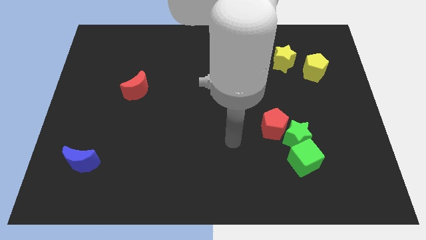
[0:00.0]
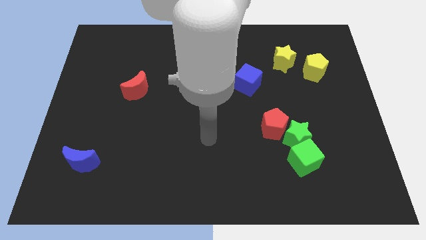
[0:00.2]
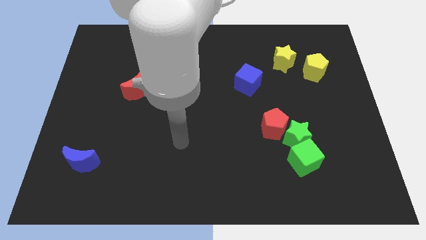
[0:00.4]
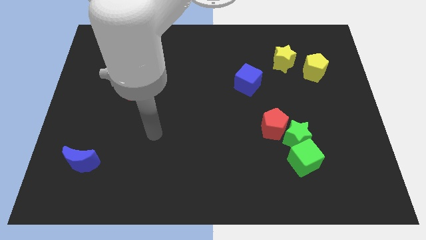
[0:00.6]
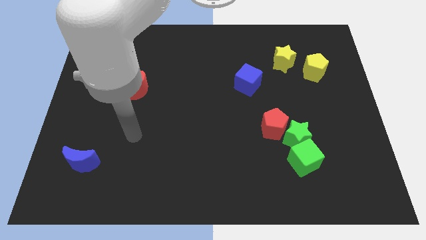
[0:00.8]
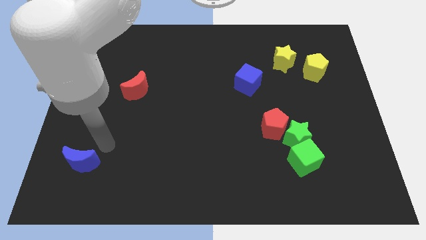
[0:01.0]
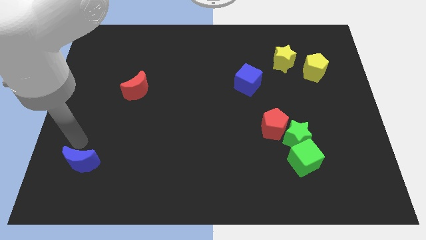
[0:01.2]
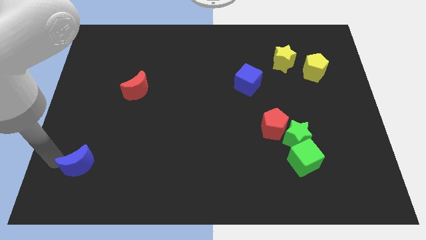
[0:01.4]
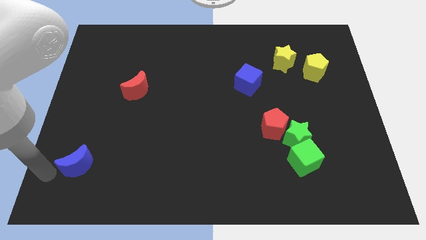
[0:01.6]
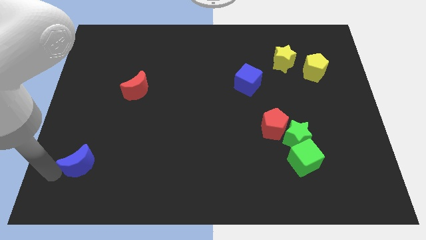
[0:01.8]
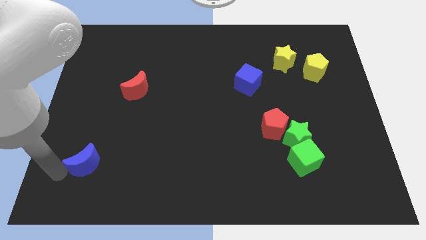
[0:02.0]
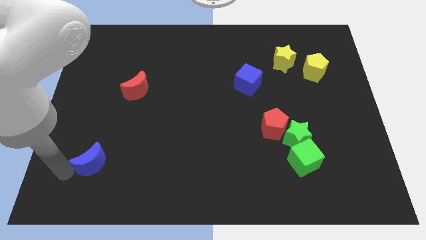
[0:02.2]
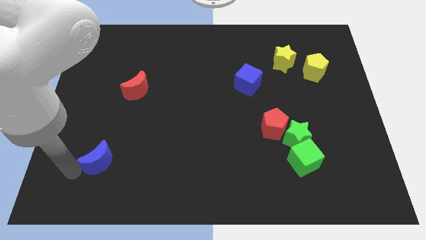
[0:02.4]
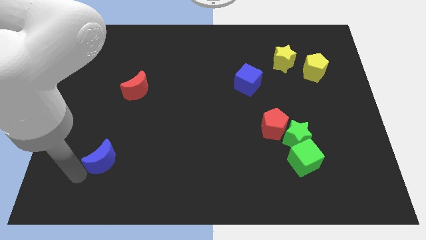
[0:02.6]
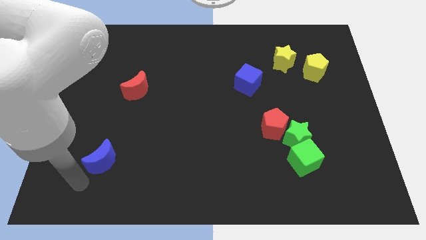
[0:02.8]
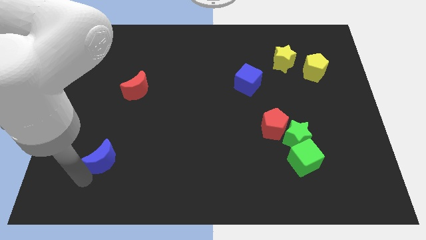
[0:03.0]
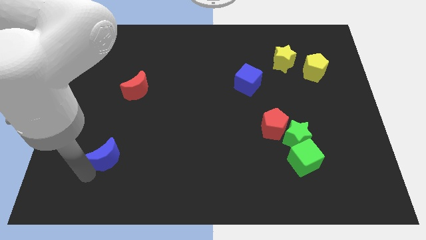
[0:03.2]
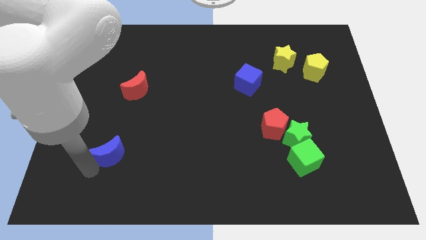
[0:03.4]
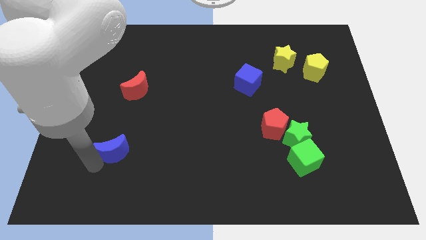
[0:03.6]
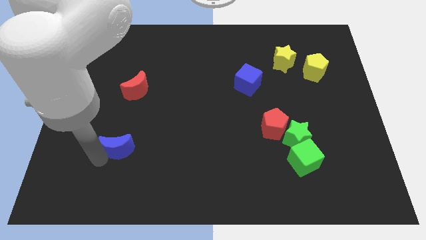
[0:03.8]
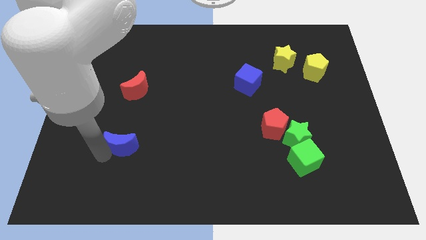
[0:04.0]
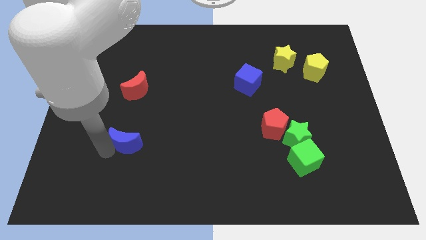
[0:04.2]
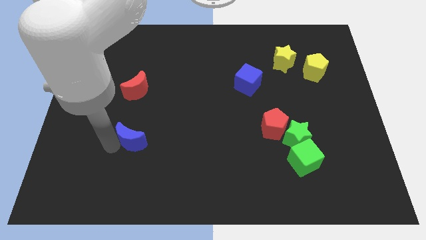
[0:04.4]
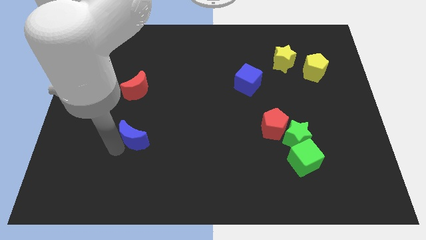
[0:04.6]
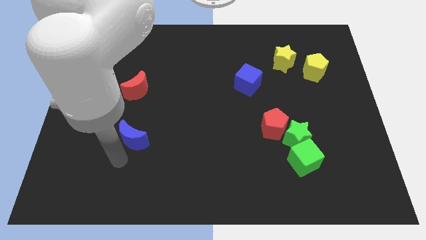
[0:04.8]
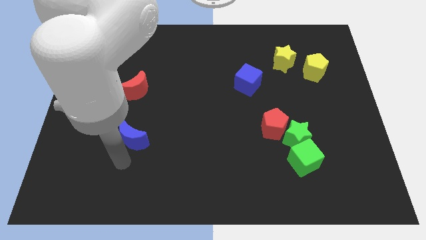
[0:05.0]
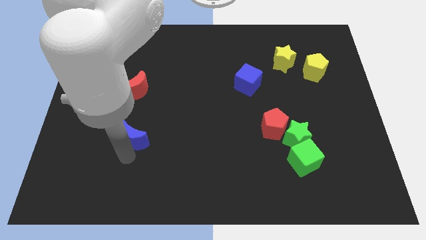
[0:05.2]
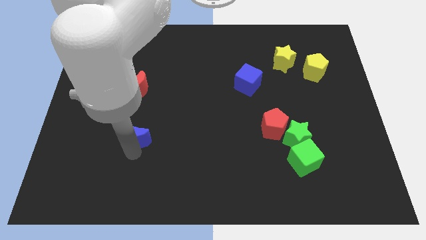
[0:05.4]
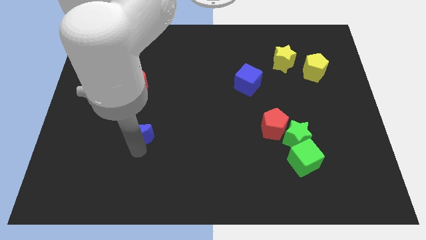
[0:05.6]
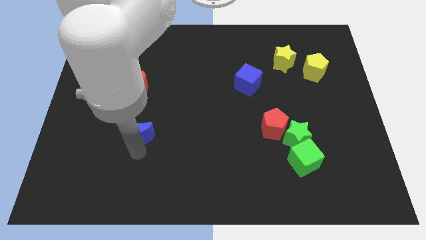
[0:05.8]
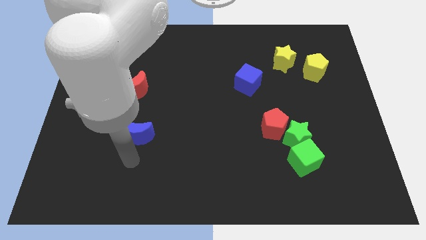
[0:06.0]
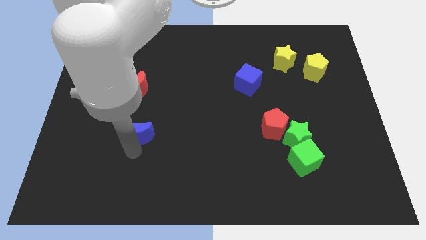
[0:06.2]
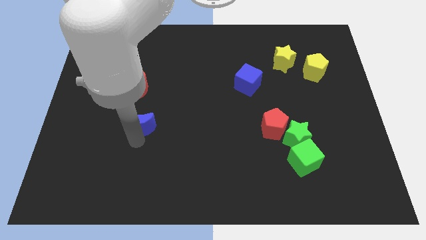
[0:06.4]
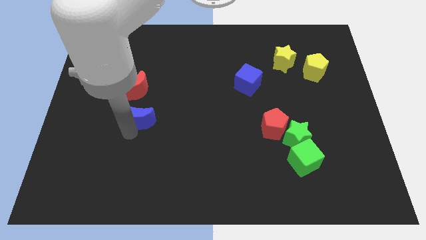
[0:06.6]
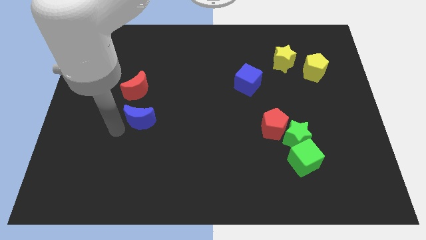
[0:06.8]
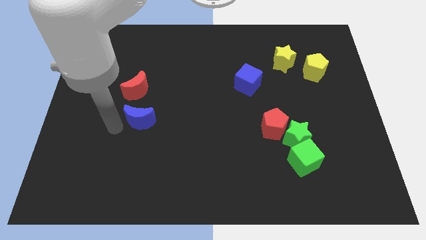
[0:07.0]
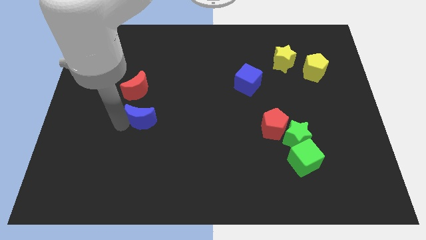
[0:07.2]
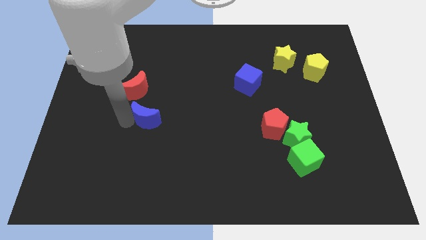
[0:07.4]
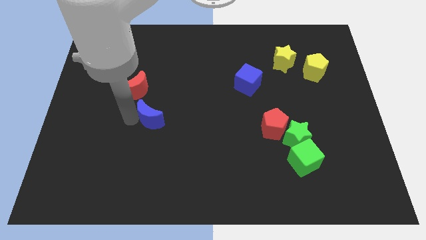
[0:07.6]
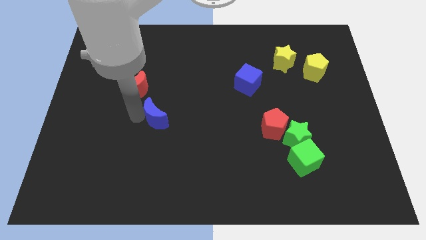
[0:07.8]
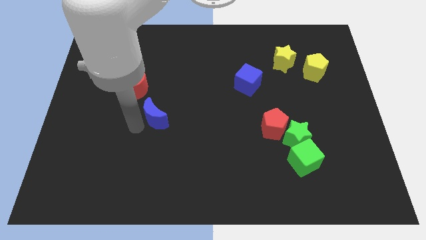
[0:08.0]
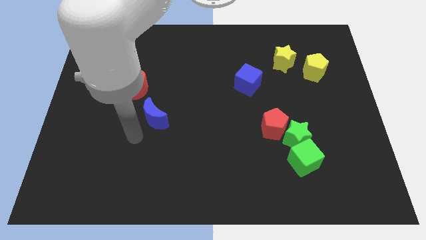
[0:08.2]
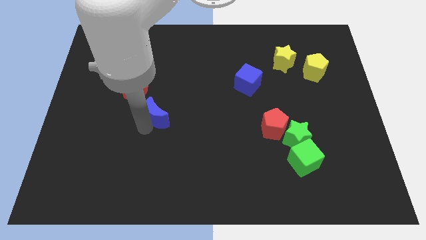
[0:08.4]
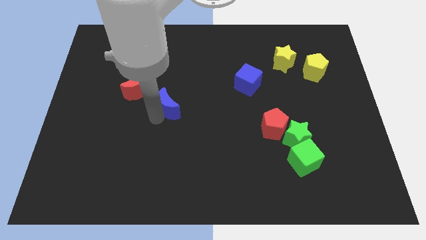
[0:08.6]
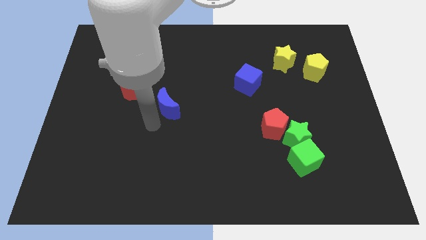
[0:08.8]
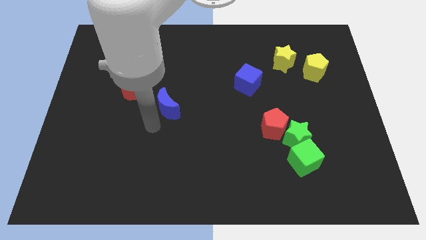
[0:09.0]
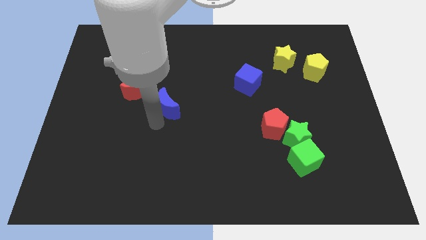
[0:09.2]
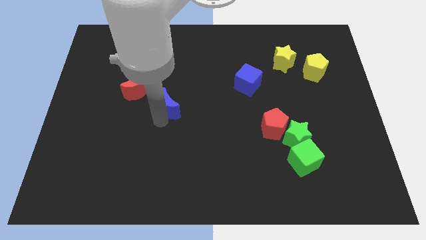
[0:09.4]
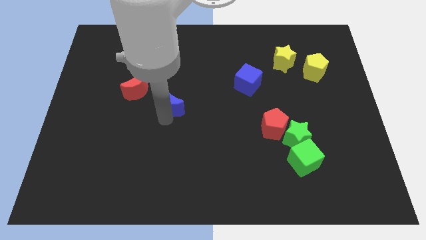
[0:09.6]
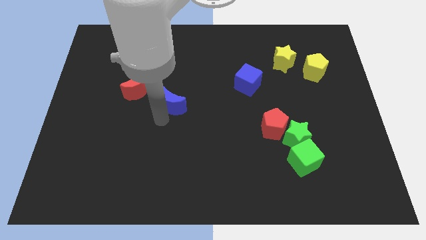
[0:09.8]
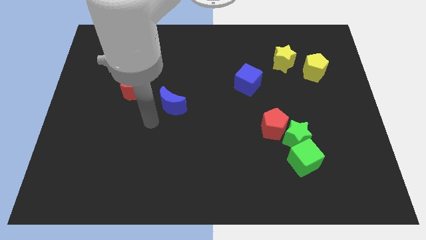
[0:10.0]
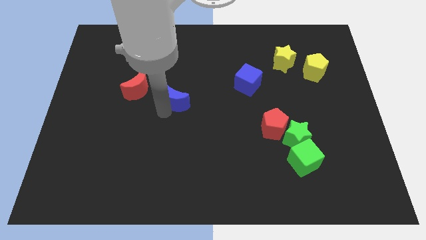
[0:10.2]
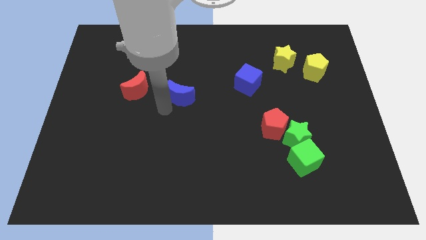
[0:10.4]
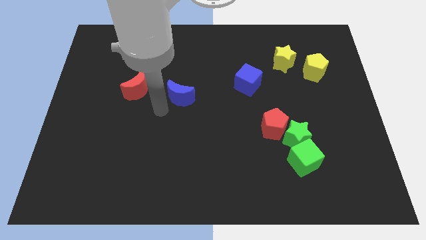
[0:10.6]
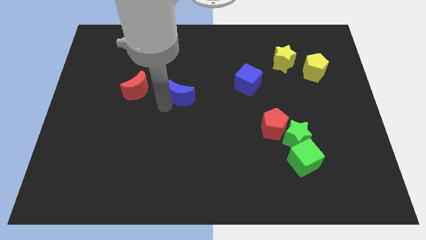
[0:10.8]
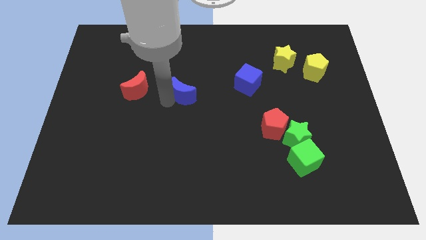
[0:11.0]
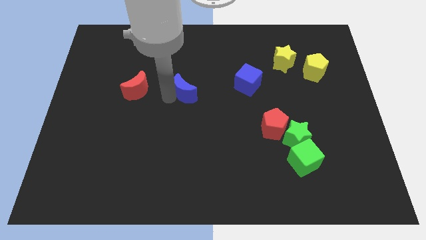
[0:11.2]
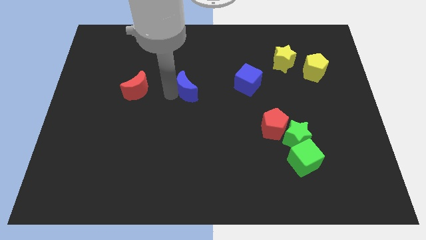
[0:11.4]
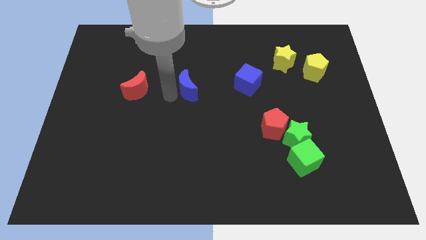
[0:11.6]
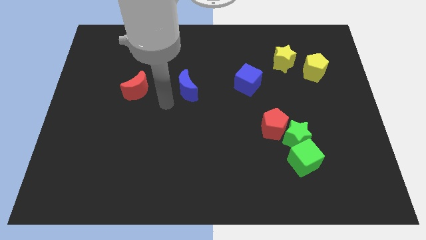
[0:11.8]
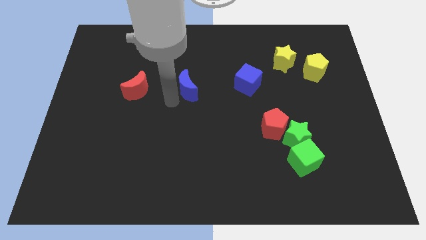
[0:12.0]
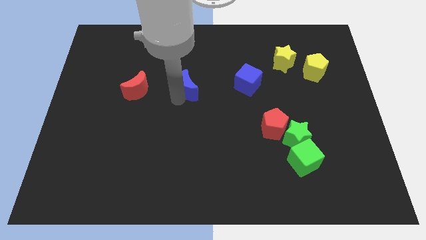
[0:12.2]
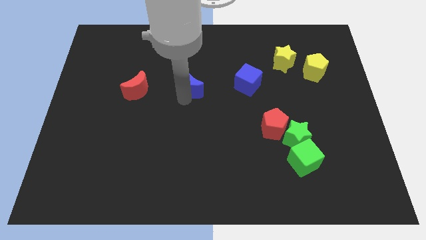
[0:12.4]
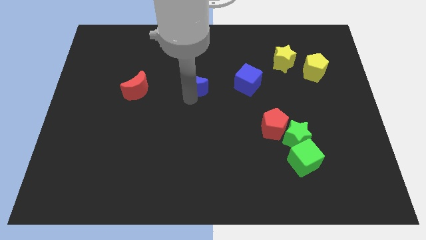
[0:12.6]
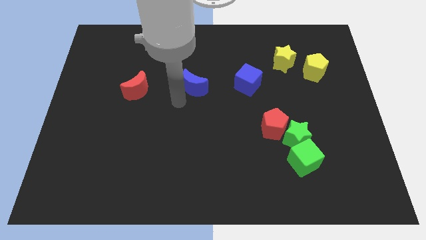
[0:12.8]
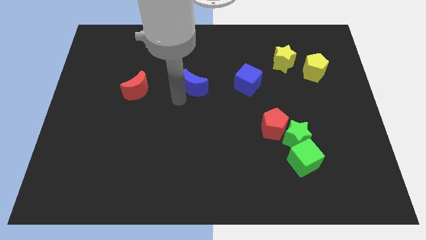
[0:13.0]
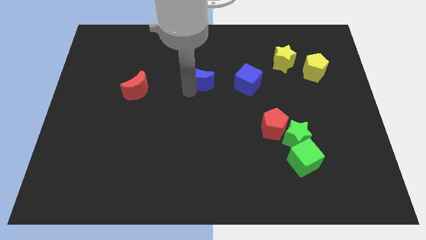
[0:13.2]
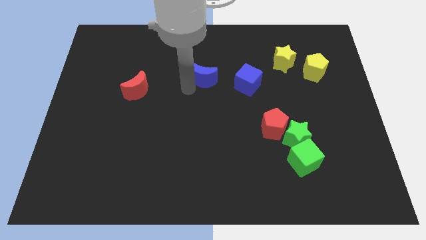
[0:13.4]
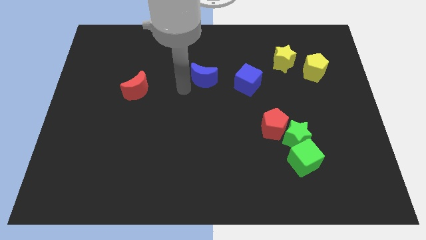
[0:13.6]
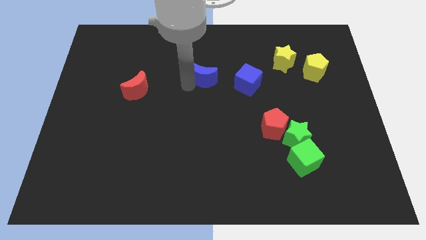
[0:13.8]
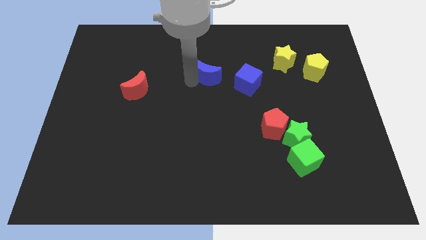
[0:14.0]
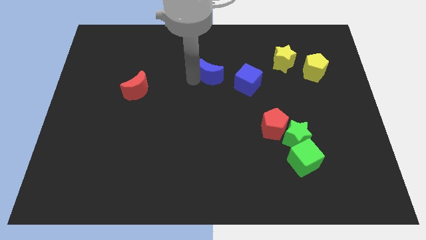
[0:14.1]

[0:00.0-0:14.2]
slide the blue moon to the top left side of the blue cube

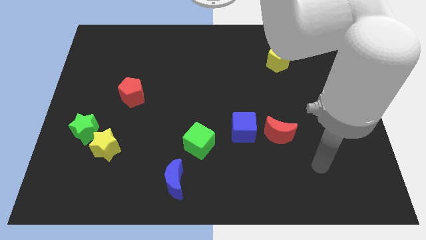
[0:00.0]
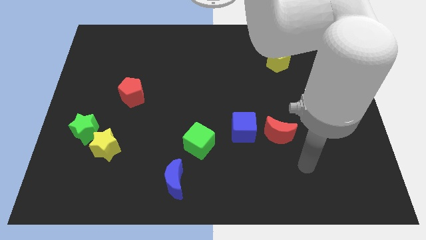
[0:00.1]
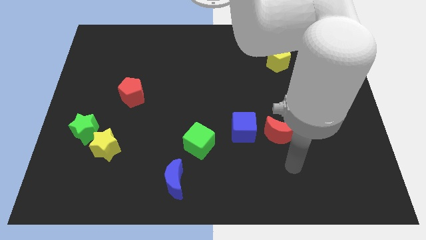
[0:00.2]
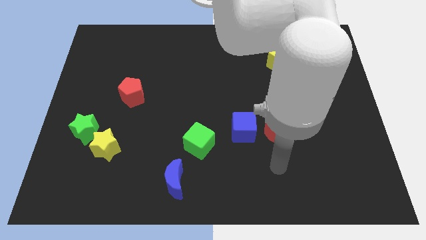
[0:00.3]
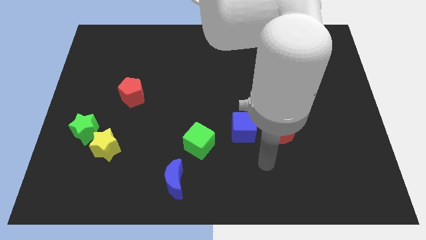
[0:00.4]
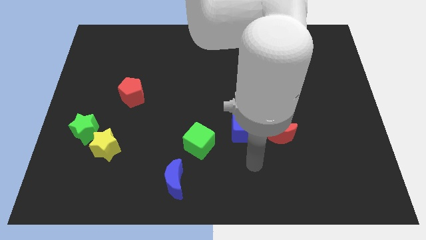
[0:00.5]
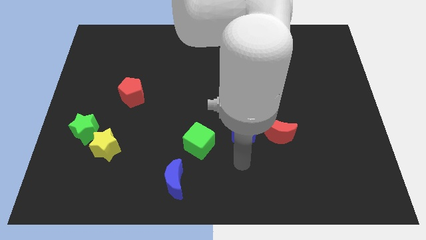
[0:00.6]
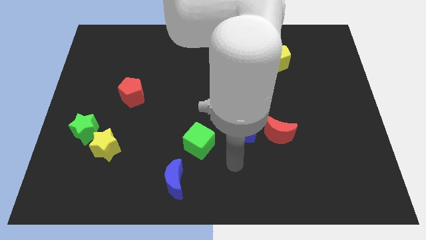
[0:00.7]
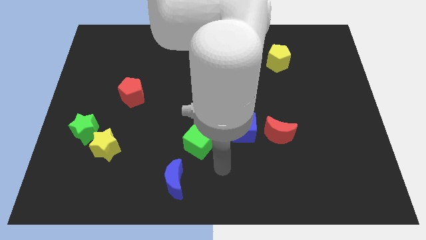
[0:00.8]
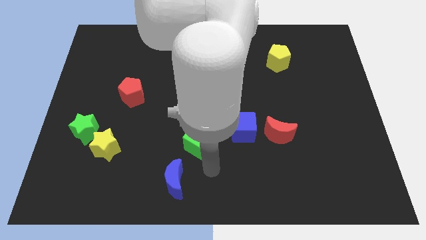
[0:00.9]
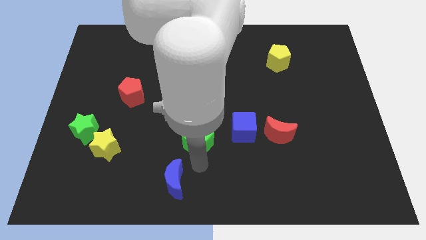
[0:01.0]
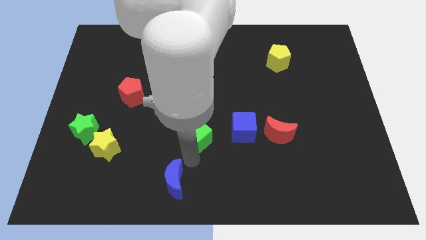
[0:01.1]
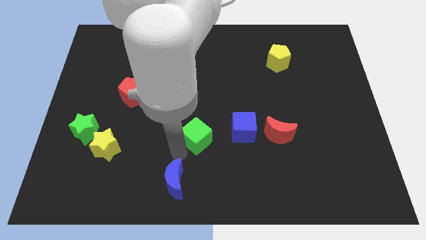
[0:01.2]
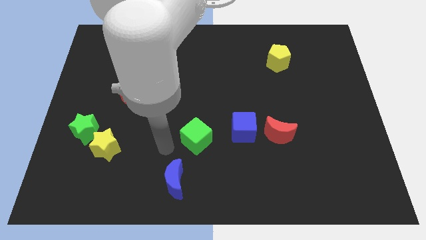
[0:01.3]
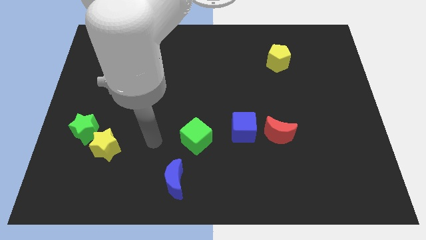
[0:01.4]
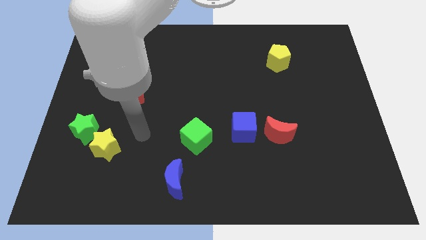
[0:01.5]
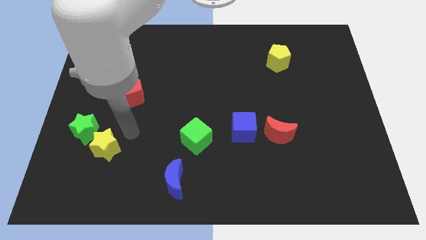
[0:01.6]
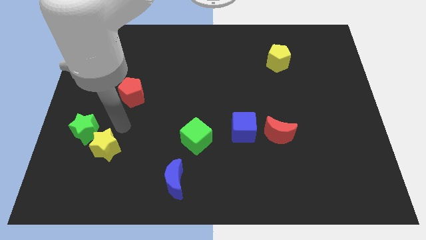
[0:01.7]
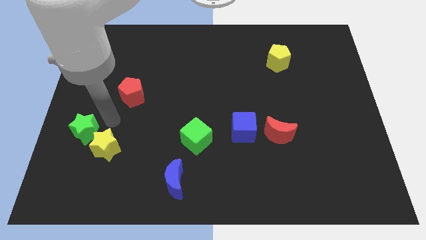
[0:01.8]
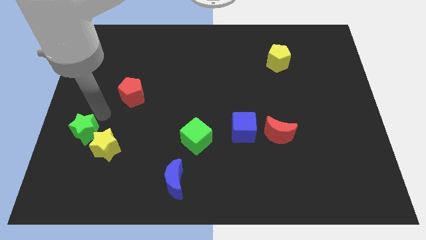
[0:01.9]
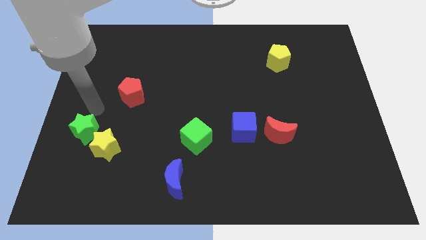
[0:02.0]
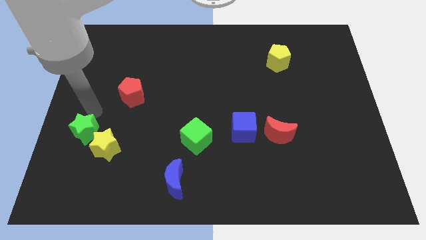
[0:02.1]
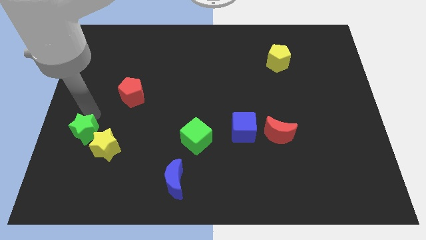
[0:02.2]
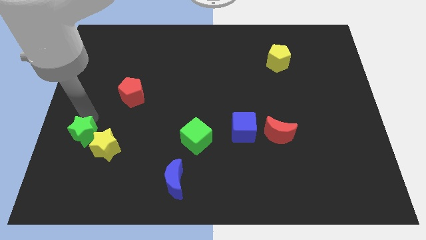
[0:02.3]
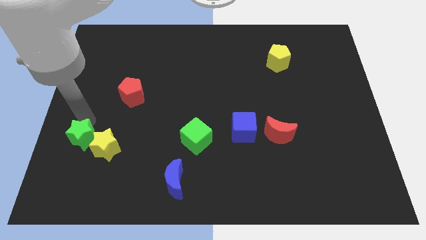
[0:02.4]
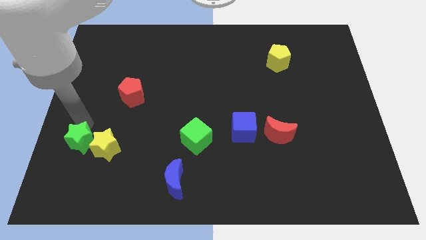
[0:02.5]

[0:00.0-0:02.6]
slide the green star diagonally down and to the left of the yellow star
